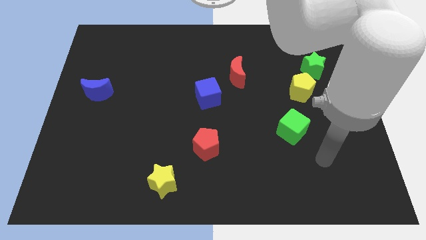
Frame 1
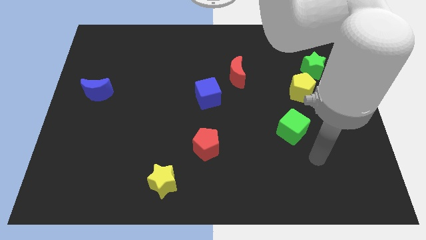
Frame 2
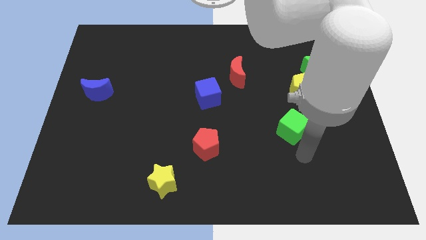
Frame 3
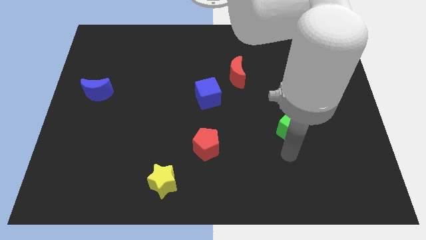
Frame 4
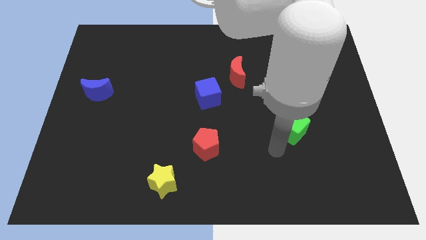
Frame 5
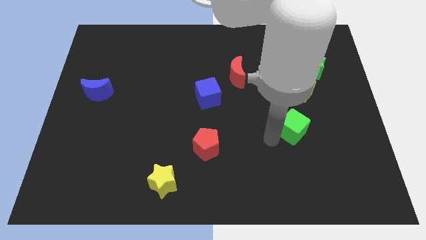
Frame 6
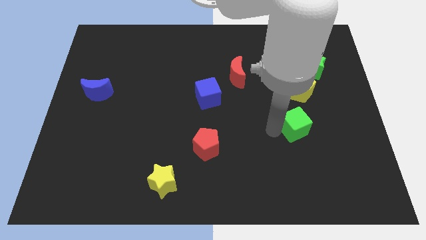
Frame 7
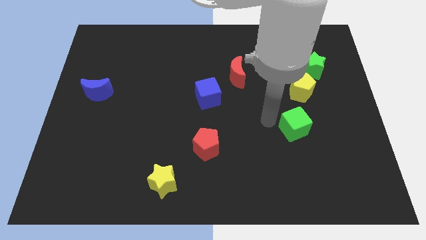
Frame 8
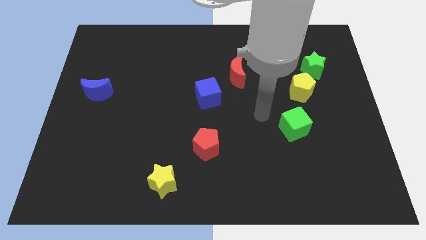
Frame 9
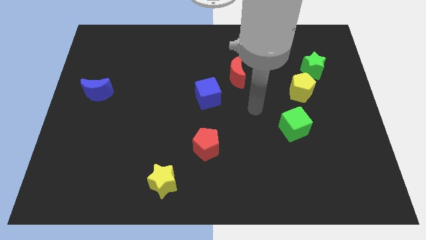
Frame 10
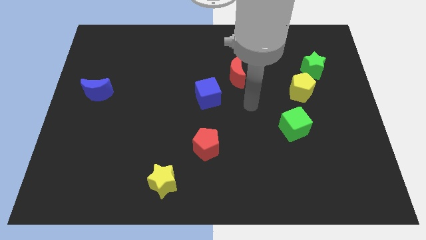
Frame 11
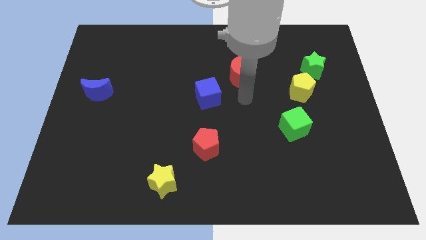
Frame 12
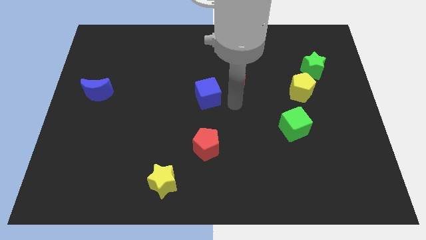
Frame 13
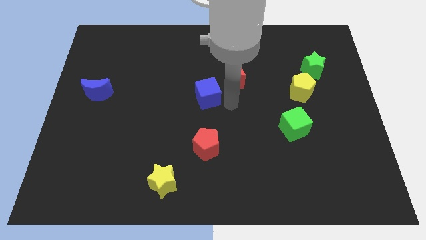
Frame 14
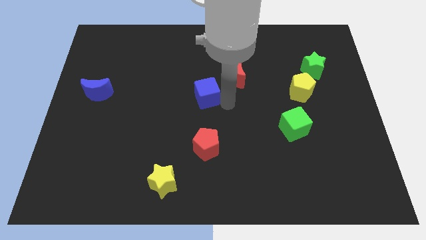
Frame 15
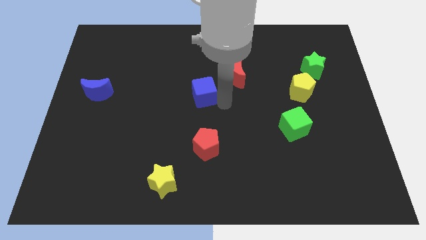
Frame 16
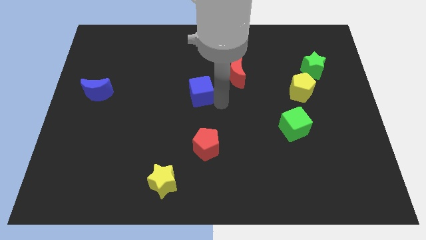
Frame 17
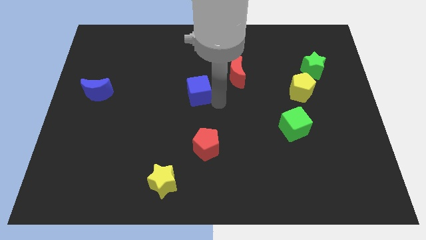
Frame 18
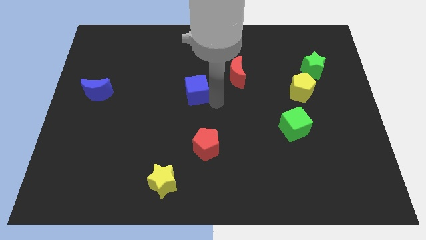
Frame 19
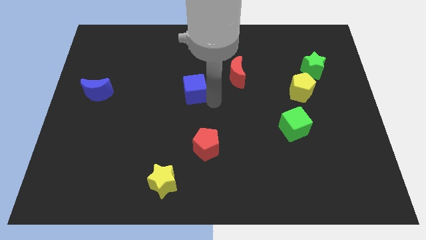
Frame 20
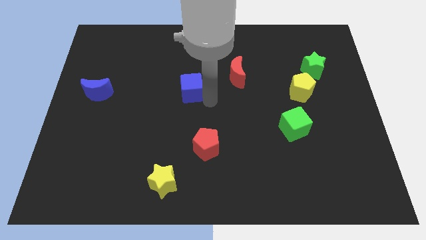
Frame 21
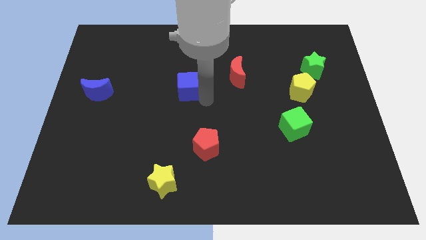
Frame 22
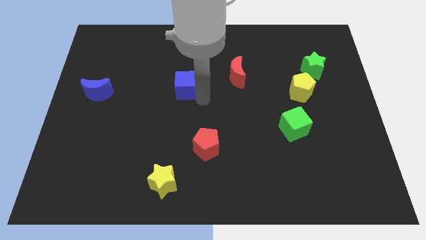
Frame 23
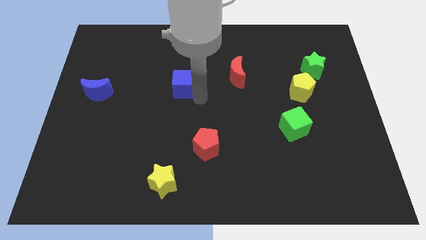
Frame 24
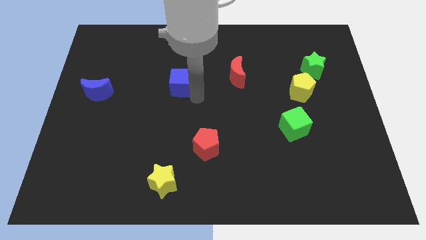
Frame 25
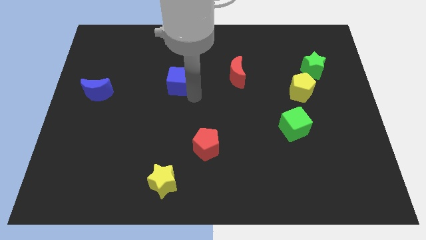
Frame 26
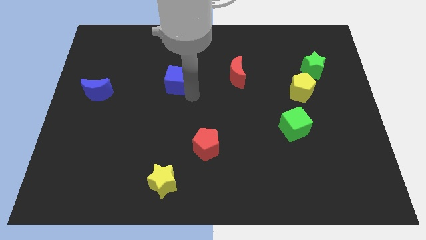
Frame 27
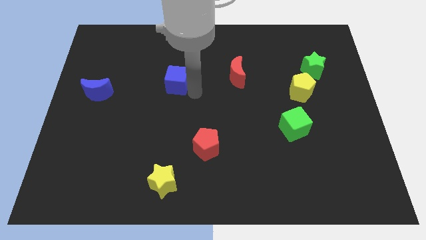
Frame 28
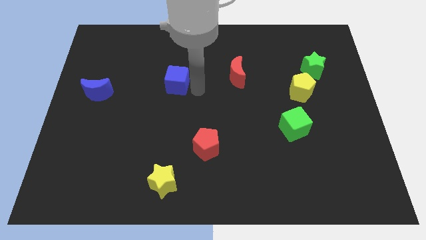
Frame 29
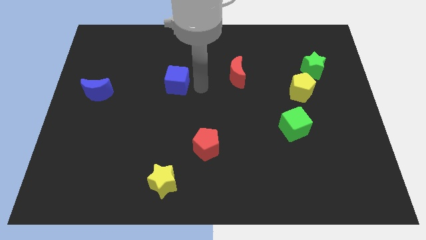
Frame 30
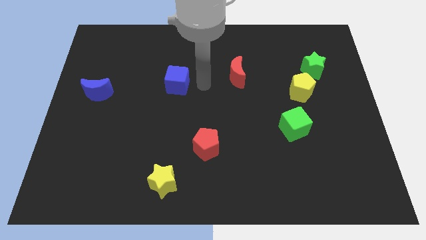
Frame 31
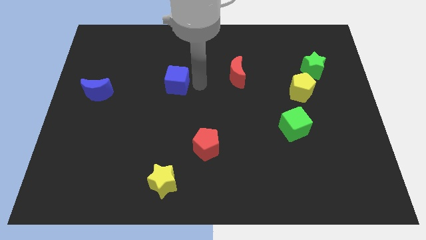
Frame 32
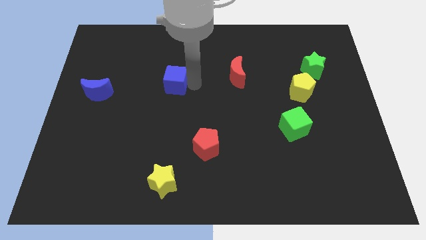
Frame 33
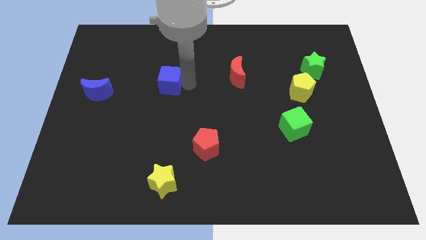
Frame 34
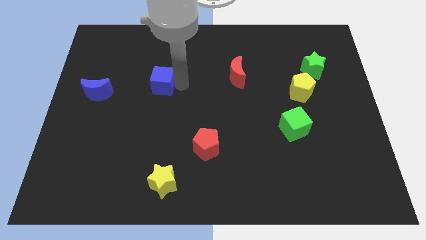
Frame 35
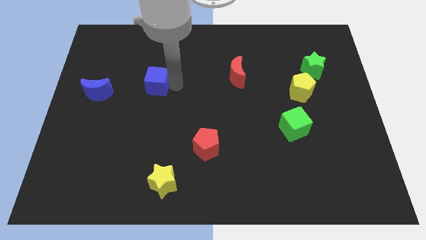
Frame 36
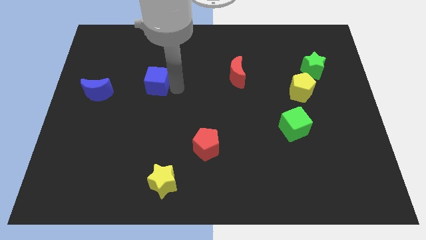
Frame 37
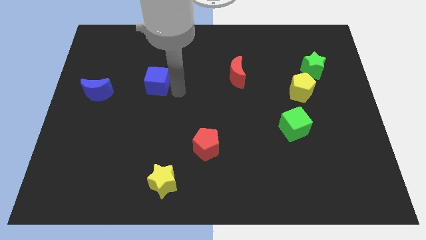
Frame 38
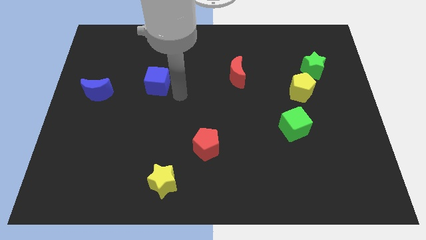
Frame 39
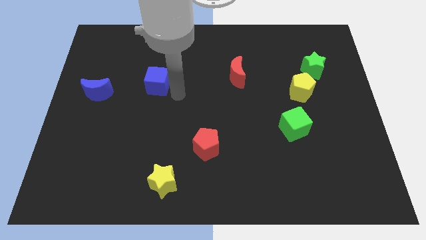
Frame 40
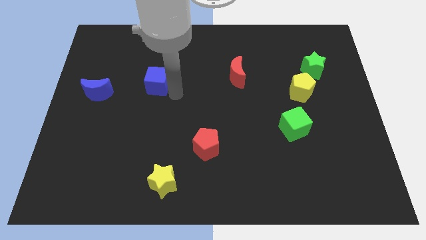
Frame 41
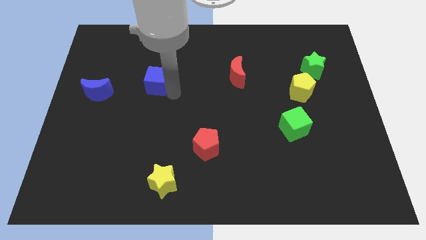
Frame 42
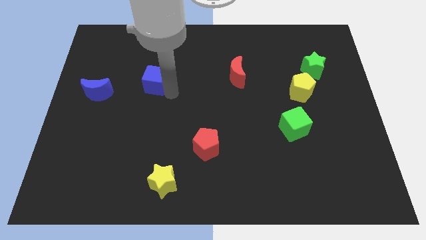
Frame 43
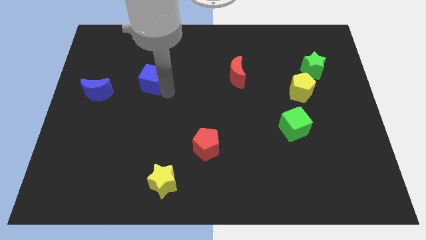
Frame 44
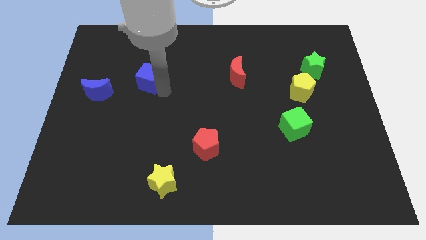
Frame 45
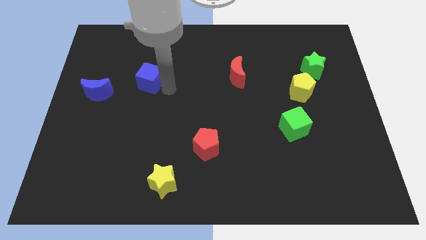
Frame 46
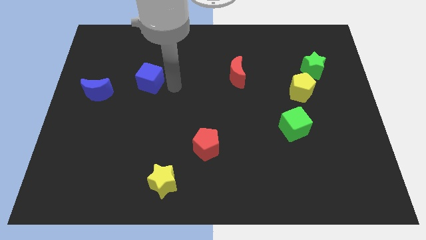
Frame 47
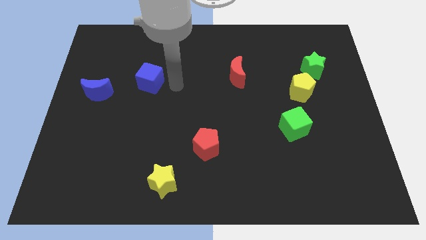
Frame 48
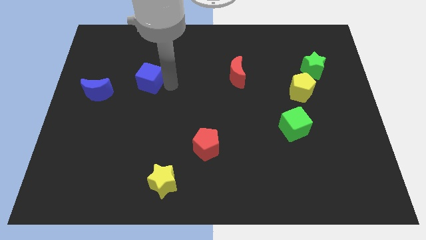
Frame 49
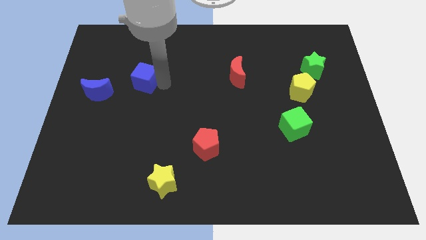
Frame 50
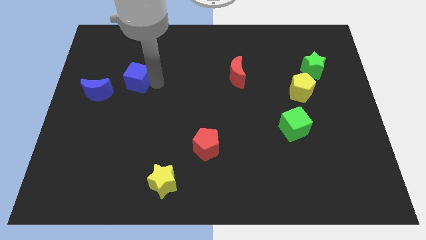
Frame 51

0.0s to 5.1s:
push the blue cube to the top right of the blue moon

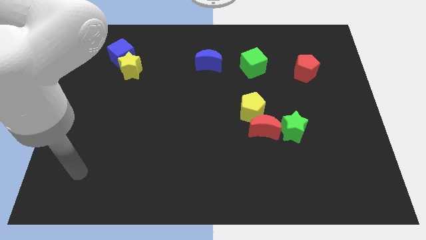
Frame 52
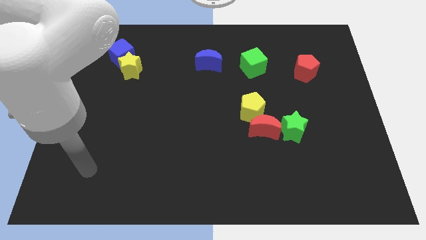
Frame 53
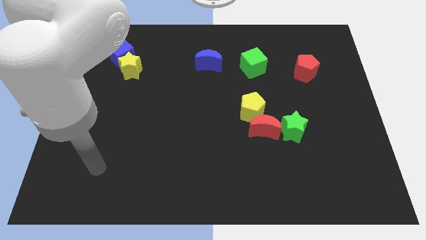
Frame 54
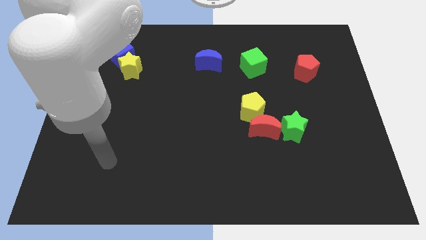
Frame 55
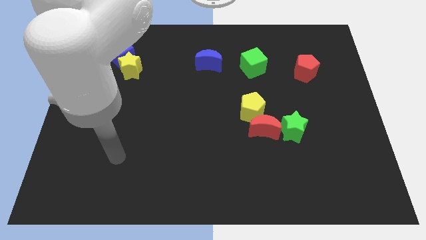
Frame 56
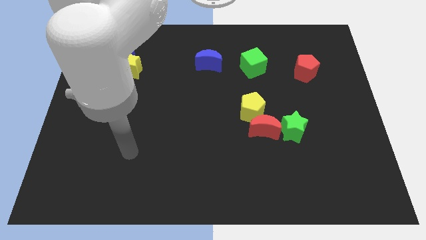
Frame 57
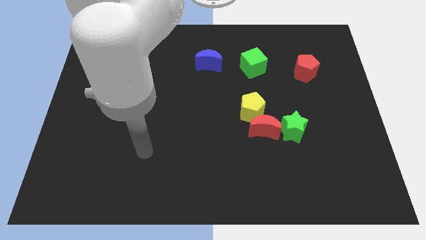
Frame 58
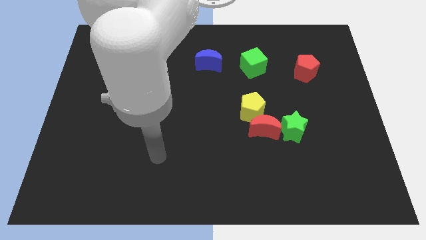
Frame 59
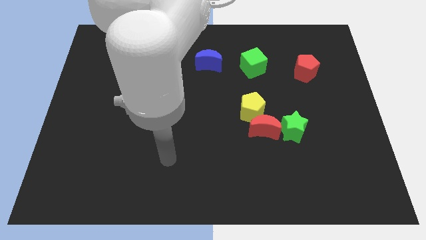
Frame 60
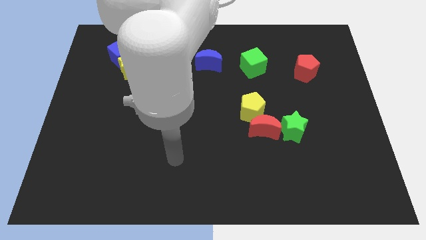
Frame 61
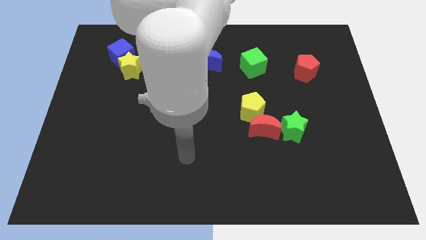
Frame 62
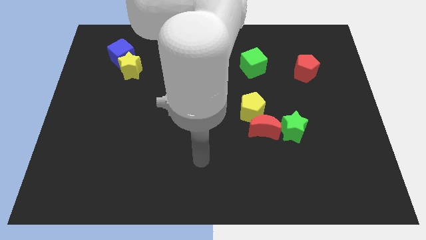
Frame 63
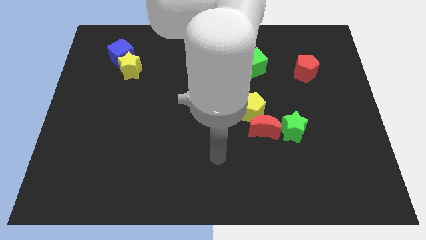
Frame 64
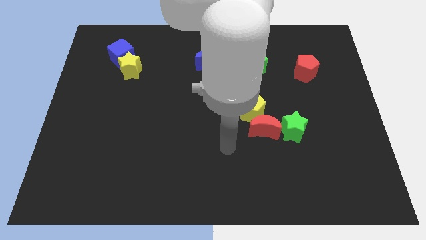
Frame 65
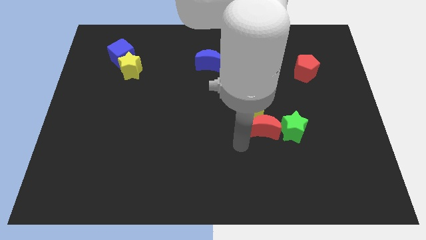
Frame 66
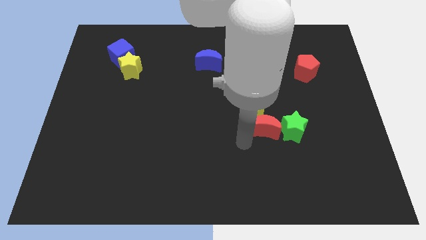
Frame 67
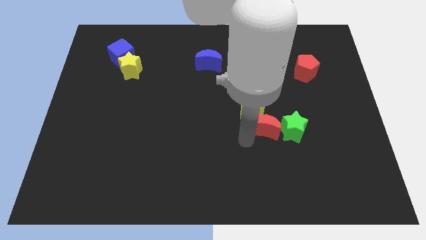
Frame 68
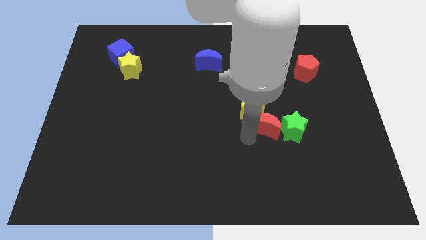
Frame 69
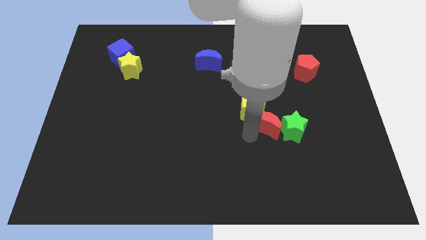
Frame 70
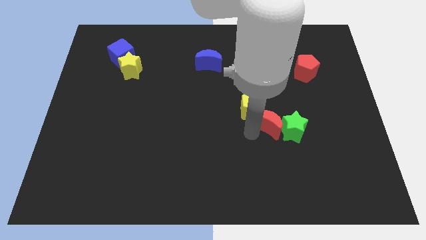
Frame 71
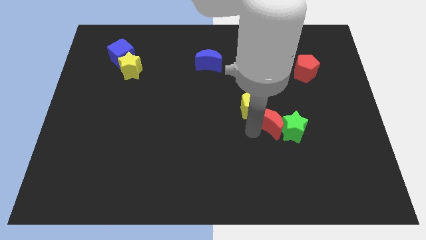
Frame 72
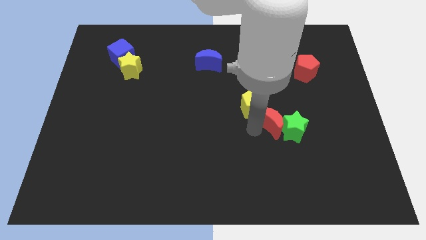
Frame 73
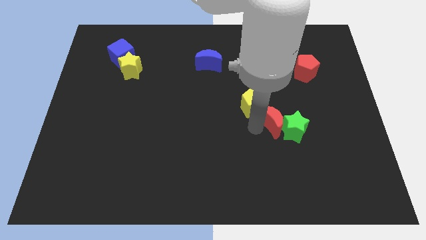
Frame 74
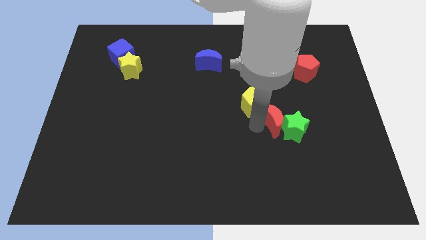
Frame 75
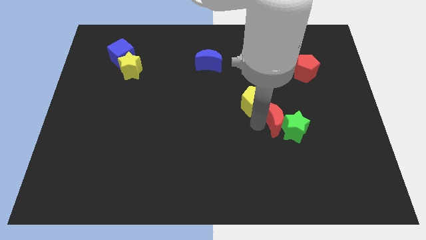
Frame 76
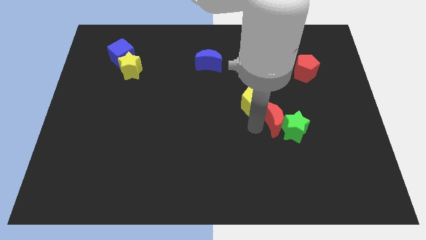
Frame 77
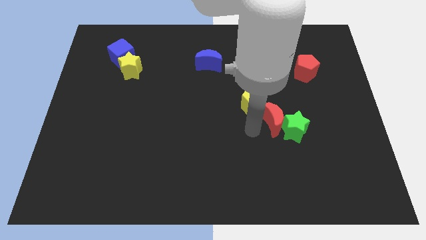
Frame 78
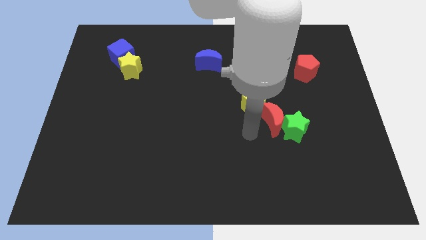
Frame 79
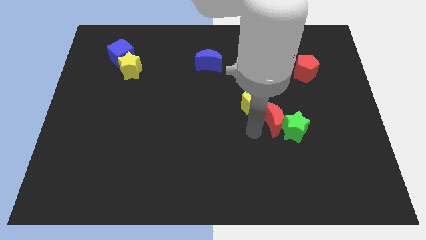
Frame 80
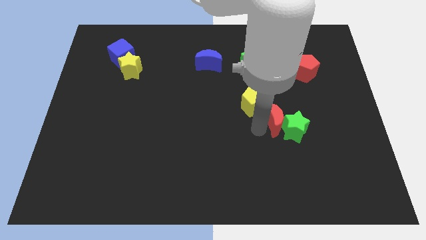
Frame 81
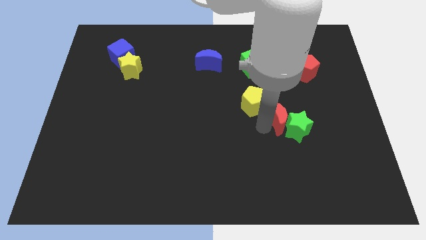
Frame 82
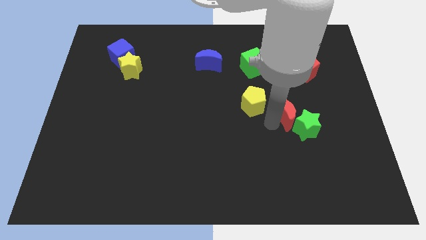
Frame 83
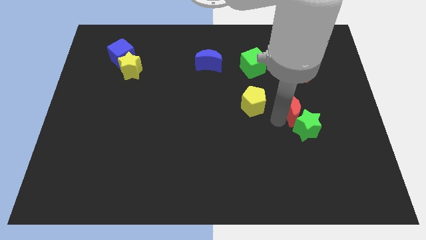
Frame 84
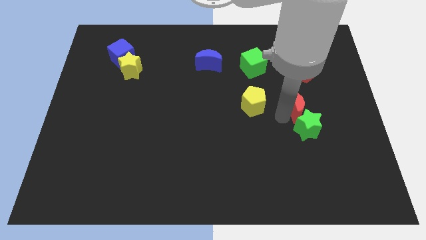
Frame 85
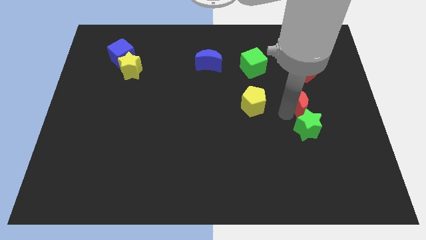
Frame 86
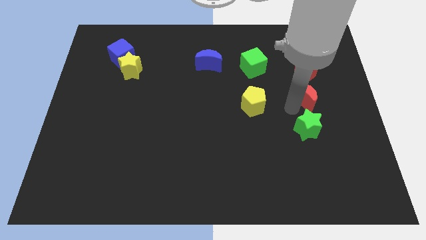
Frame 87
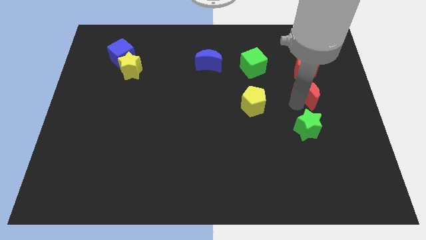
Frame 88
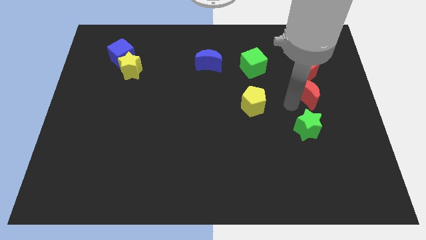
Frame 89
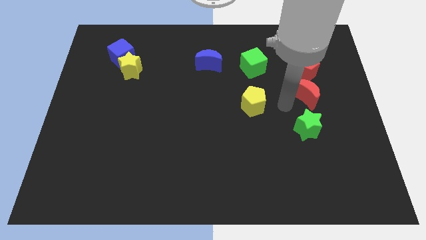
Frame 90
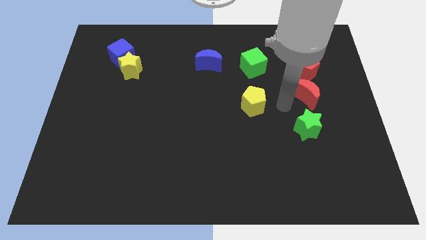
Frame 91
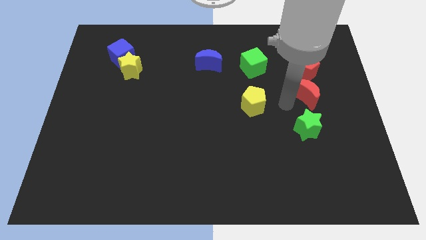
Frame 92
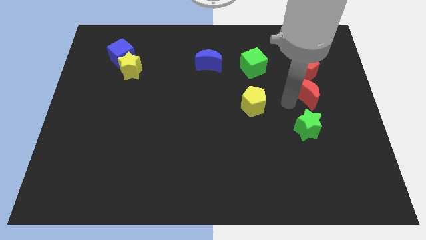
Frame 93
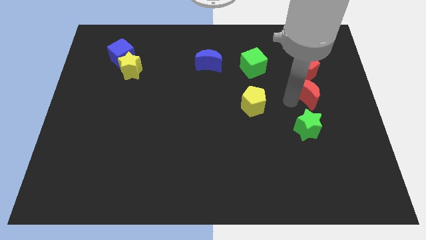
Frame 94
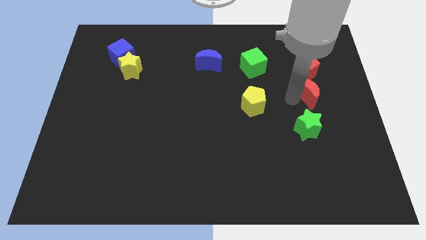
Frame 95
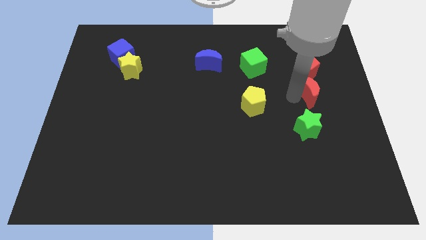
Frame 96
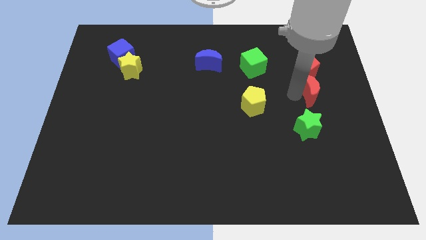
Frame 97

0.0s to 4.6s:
slide the red moon to the bottom right of the red pentagon
